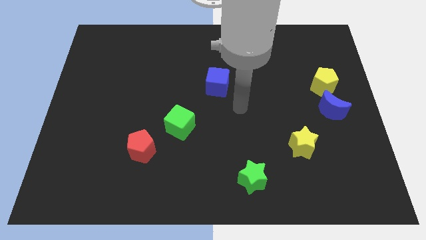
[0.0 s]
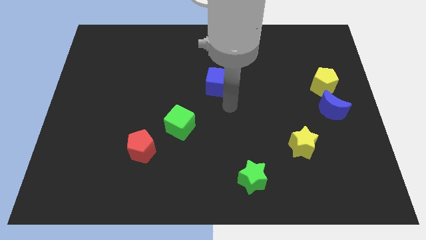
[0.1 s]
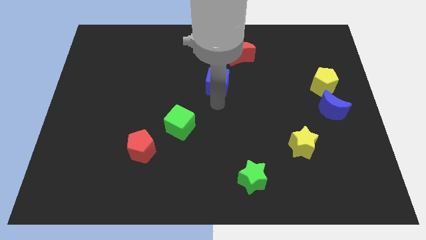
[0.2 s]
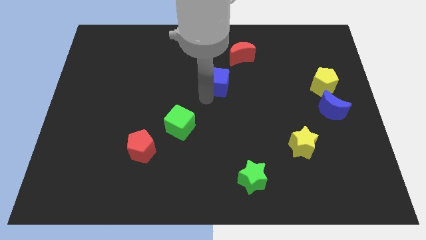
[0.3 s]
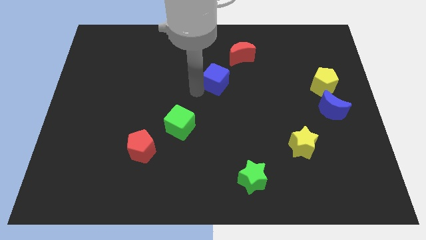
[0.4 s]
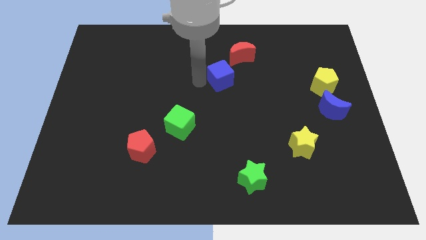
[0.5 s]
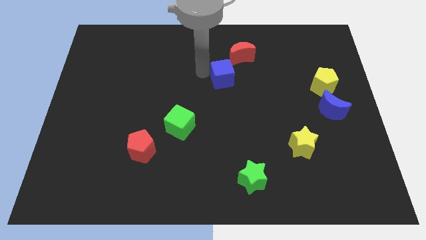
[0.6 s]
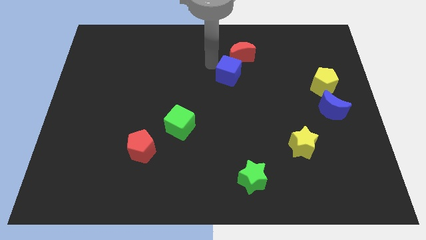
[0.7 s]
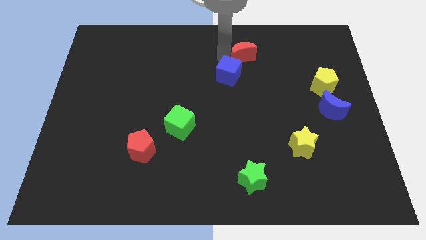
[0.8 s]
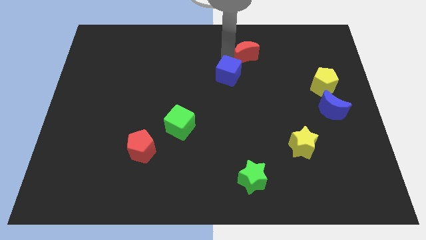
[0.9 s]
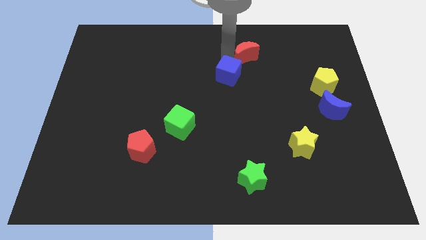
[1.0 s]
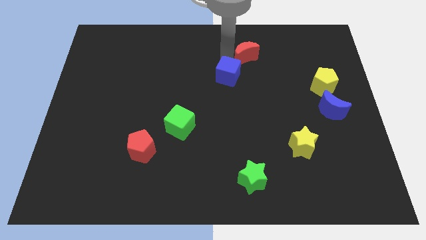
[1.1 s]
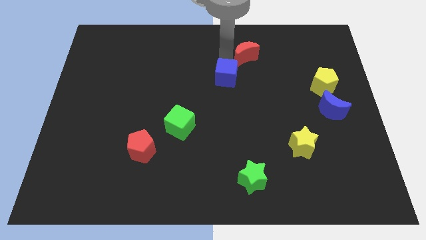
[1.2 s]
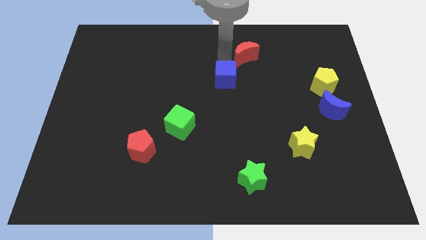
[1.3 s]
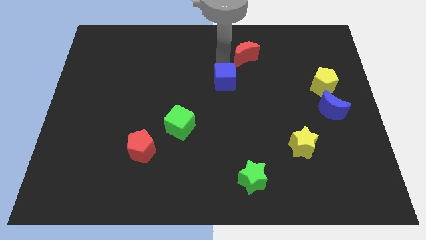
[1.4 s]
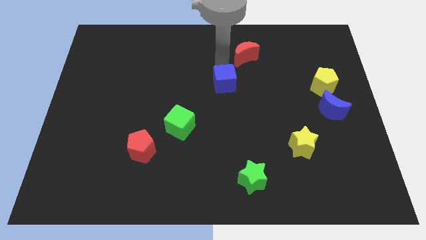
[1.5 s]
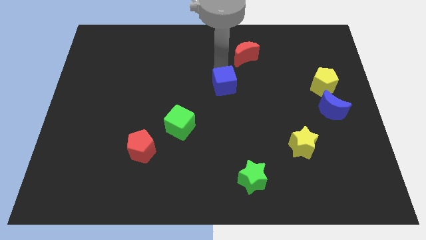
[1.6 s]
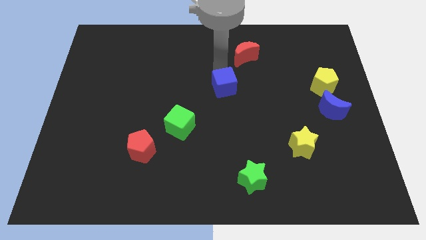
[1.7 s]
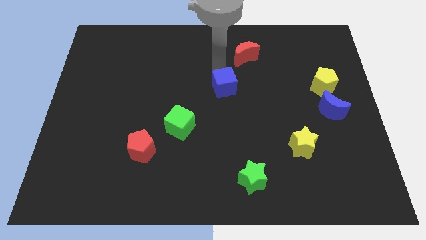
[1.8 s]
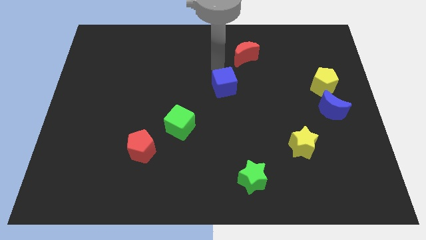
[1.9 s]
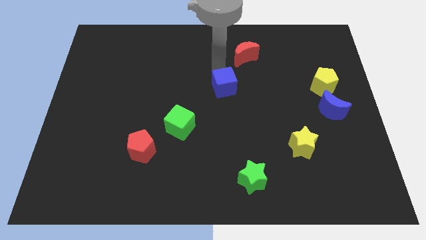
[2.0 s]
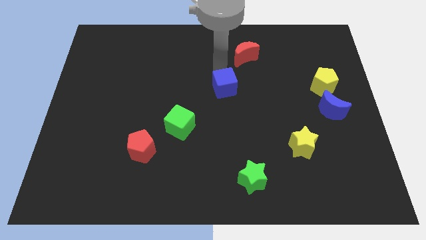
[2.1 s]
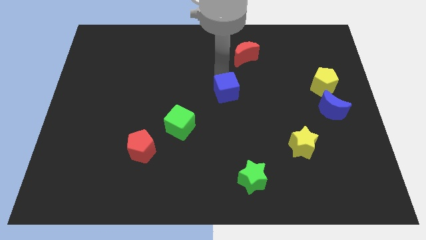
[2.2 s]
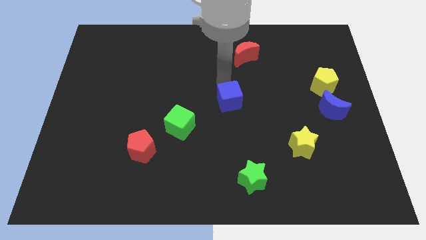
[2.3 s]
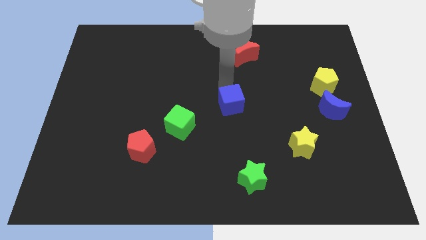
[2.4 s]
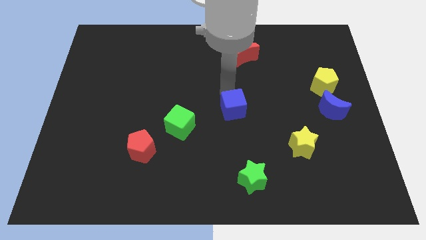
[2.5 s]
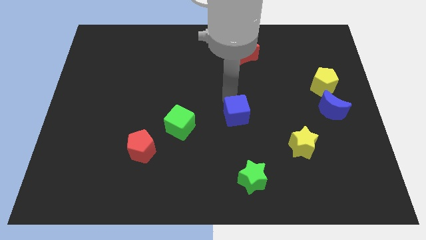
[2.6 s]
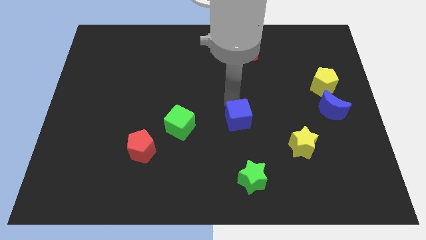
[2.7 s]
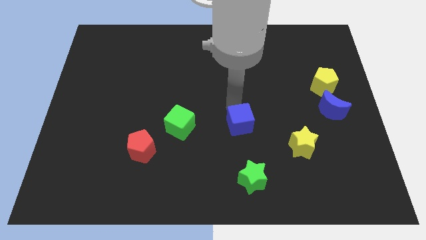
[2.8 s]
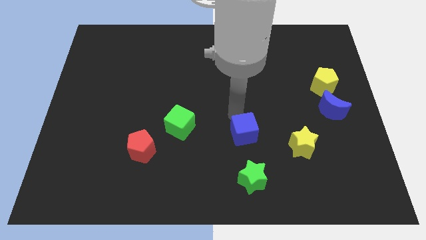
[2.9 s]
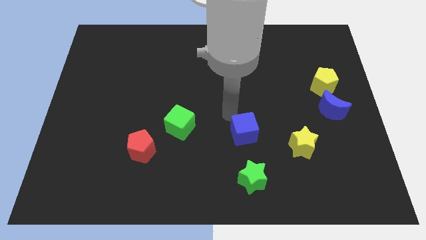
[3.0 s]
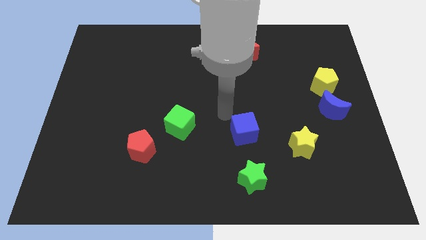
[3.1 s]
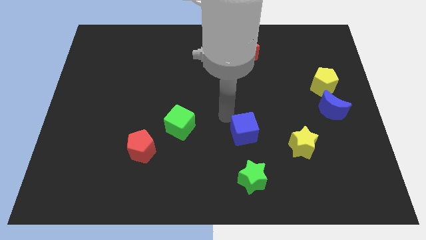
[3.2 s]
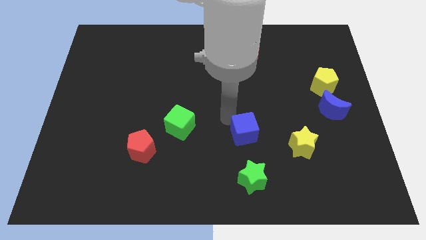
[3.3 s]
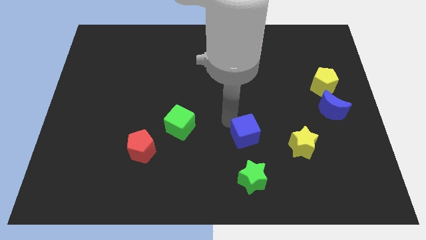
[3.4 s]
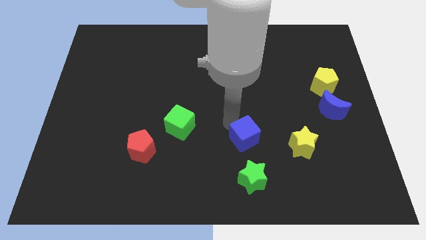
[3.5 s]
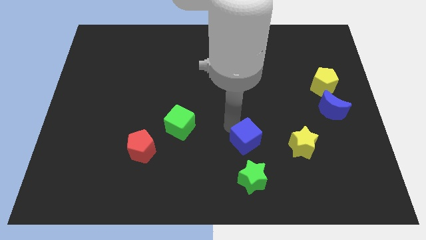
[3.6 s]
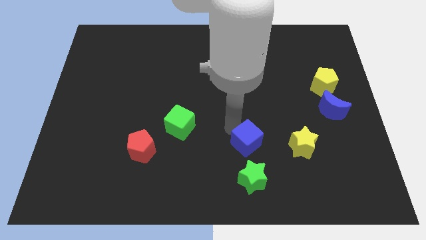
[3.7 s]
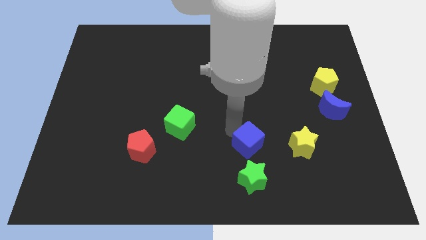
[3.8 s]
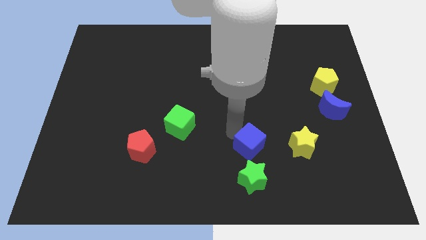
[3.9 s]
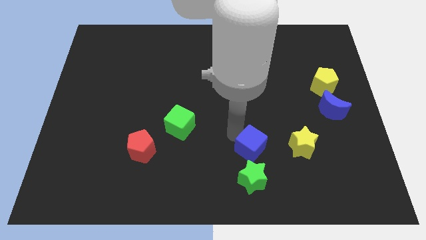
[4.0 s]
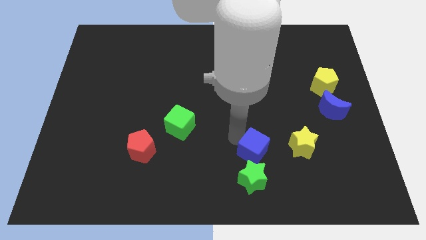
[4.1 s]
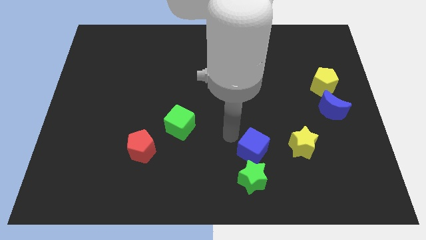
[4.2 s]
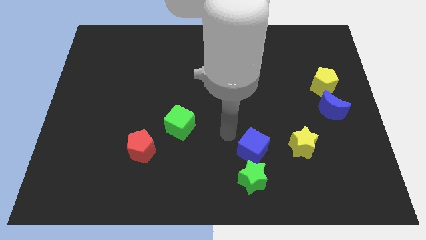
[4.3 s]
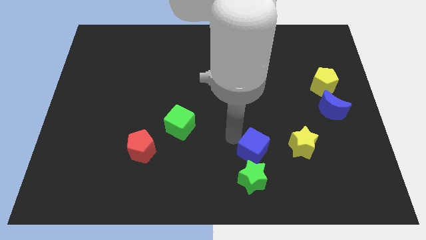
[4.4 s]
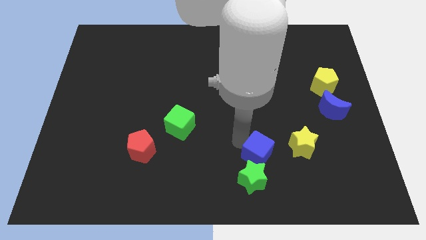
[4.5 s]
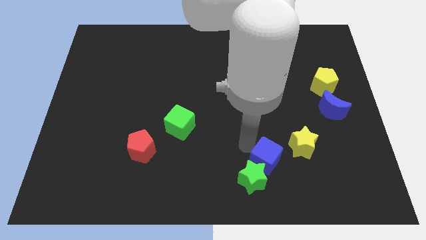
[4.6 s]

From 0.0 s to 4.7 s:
move the blue cube to the bottom left of the yellow star

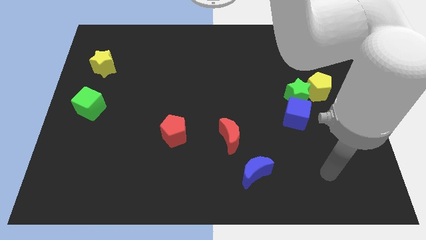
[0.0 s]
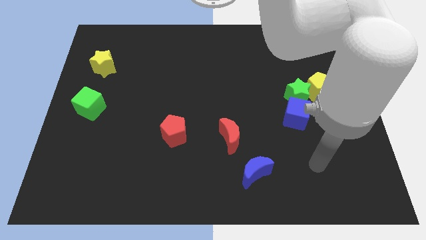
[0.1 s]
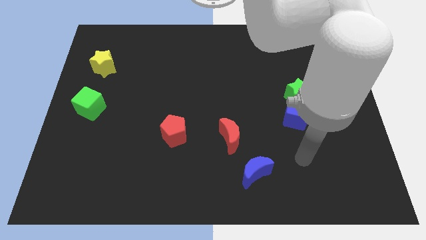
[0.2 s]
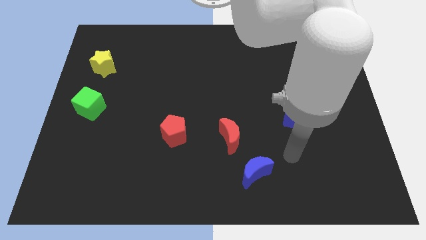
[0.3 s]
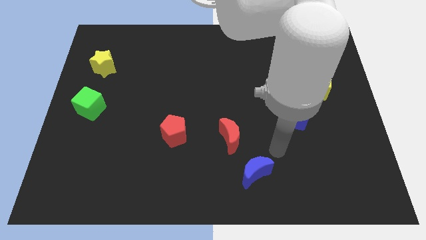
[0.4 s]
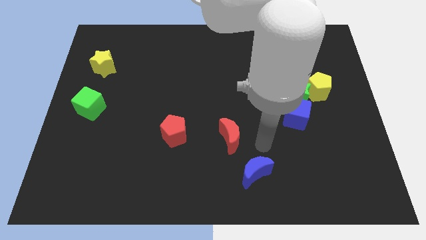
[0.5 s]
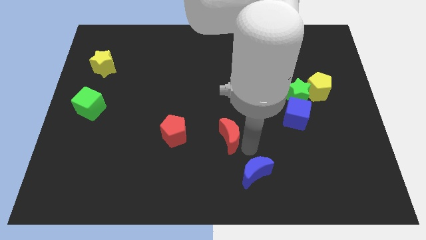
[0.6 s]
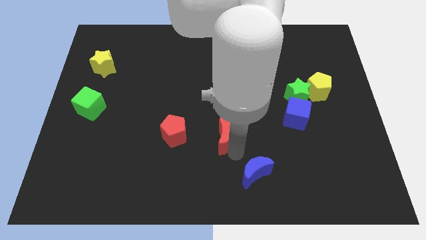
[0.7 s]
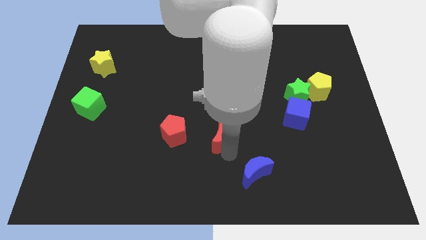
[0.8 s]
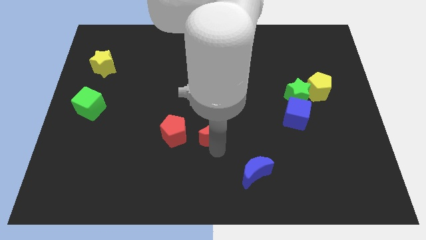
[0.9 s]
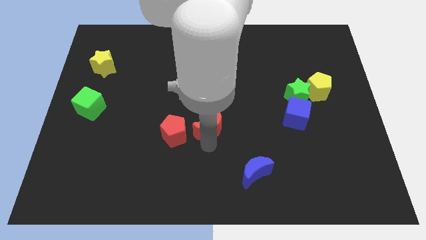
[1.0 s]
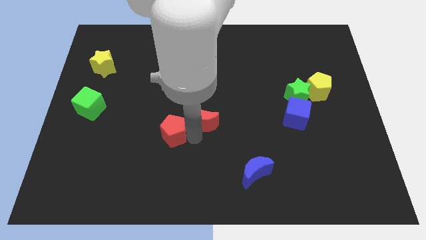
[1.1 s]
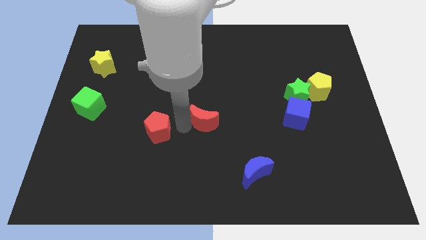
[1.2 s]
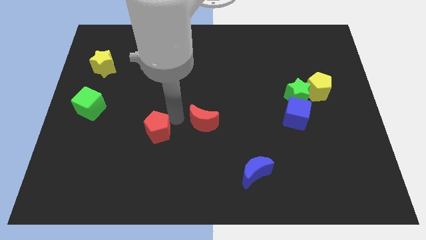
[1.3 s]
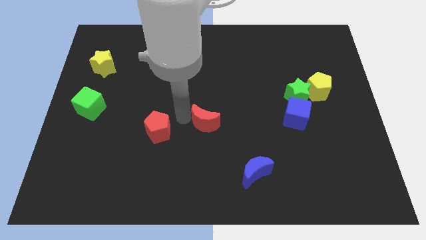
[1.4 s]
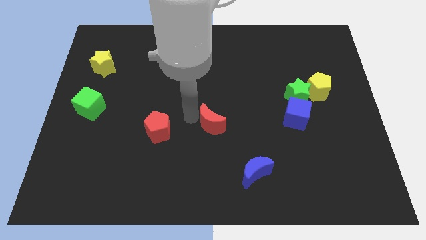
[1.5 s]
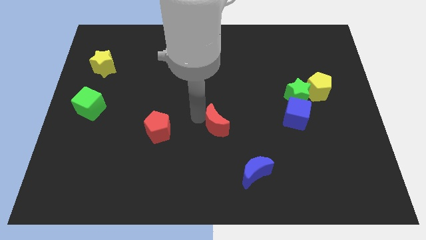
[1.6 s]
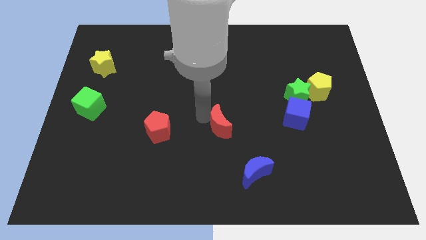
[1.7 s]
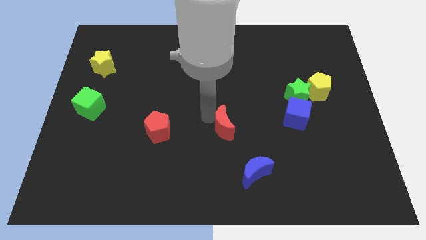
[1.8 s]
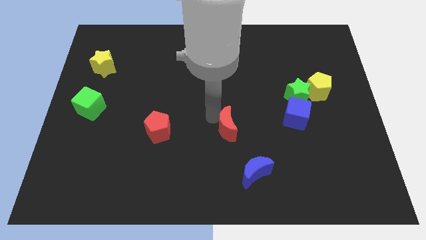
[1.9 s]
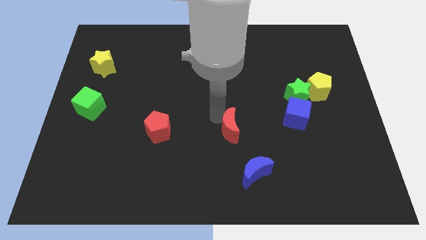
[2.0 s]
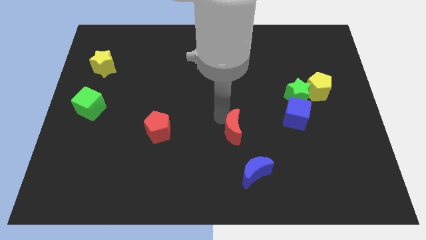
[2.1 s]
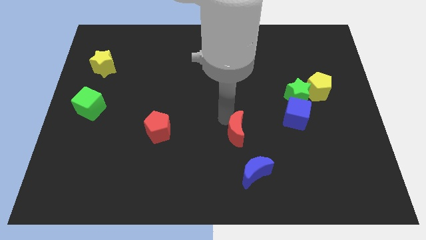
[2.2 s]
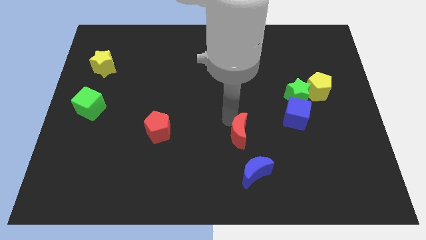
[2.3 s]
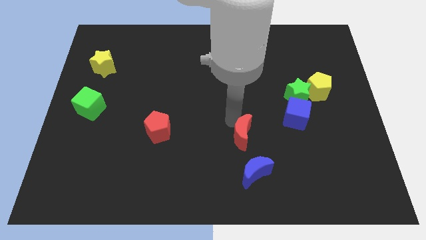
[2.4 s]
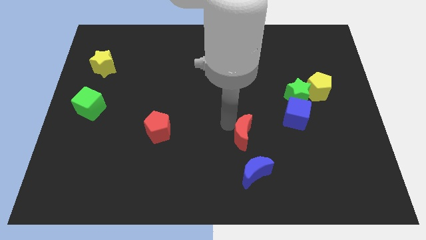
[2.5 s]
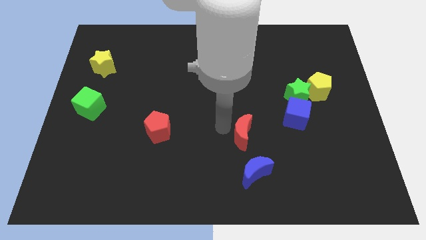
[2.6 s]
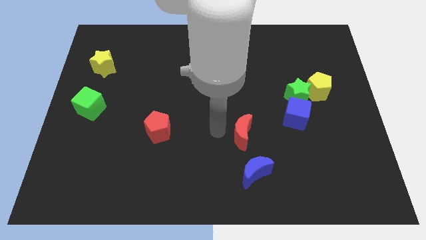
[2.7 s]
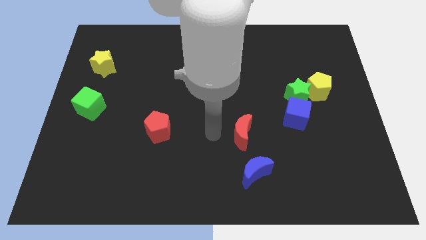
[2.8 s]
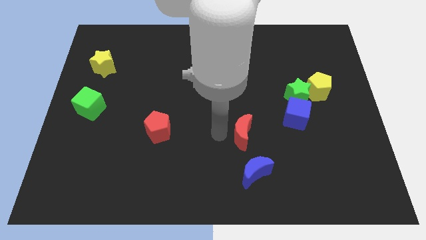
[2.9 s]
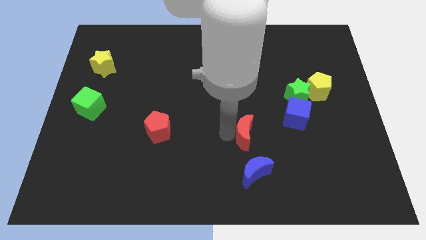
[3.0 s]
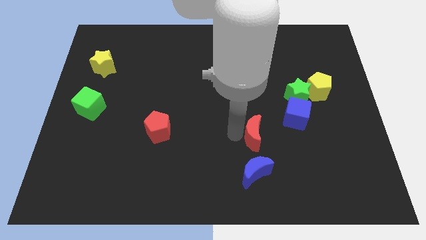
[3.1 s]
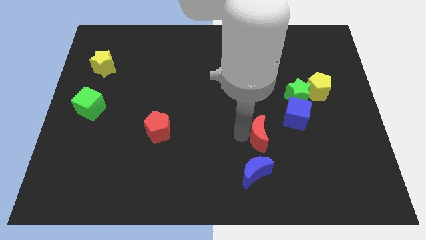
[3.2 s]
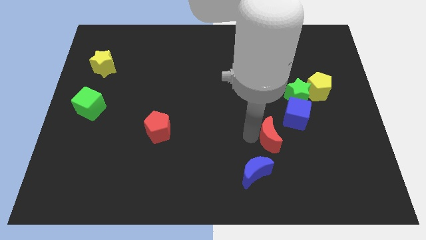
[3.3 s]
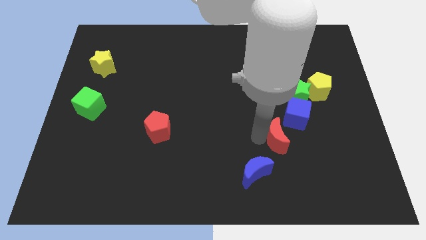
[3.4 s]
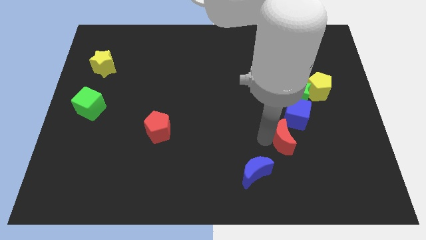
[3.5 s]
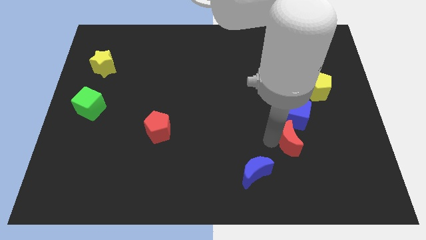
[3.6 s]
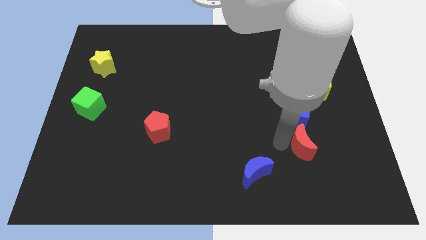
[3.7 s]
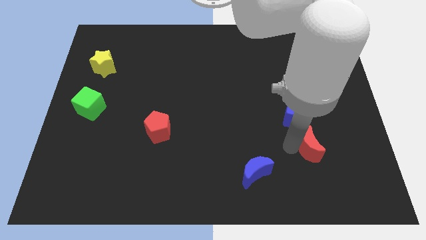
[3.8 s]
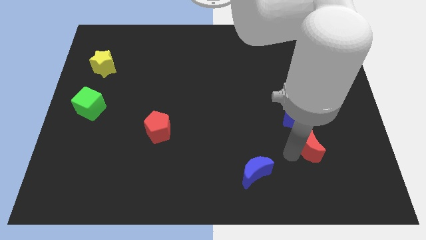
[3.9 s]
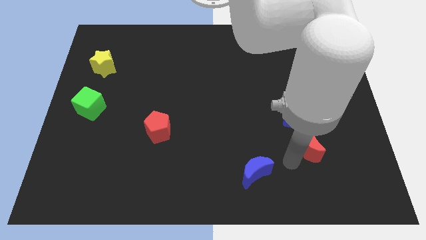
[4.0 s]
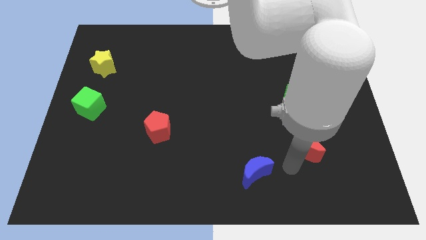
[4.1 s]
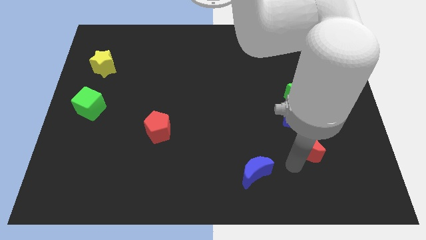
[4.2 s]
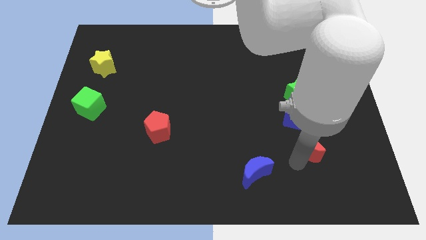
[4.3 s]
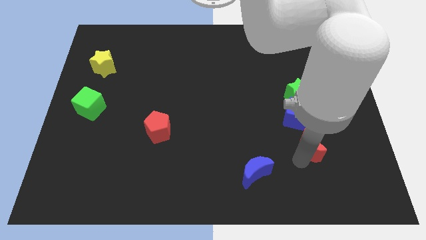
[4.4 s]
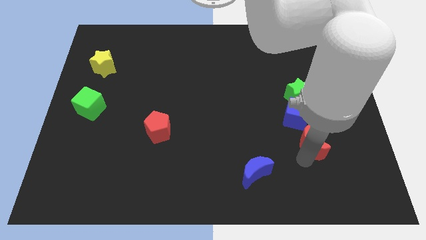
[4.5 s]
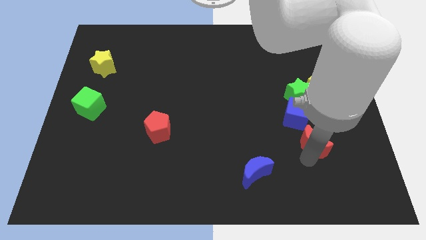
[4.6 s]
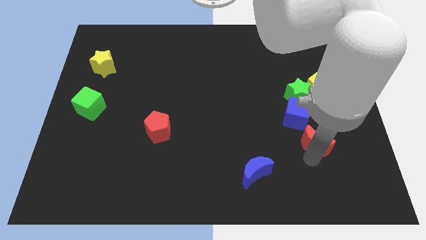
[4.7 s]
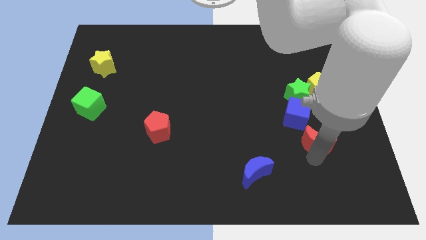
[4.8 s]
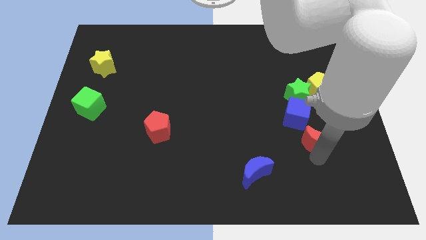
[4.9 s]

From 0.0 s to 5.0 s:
slide the red moon to the bottom of the yellow pentagon
